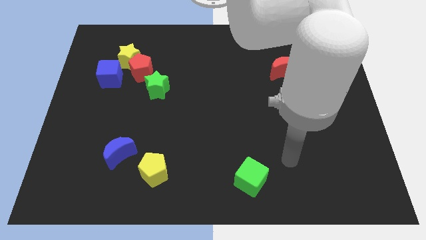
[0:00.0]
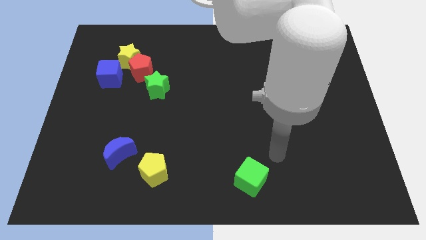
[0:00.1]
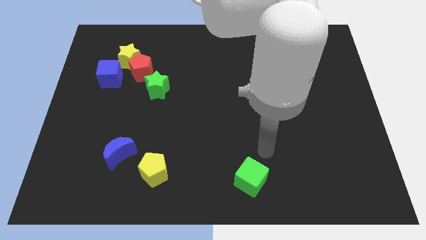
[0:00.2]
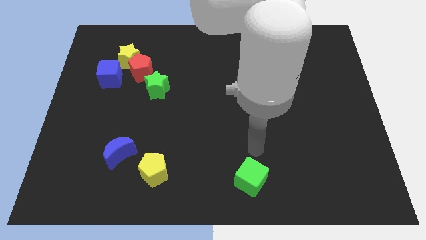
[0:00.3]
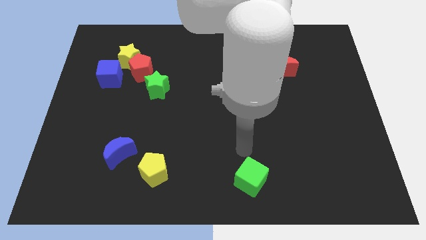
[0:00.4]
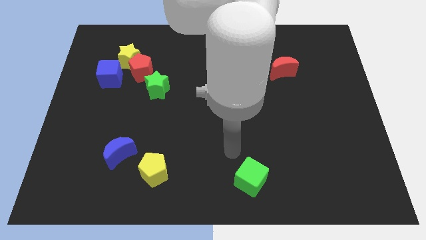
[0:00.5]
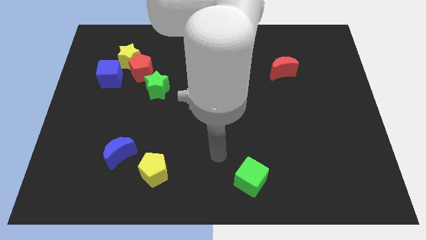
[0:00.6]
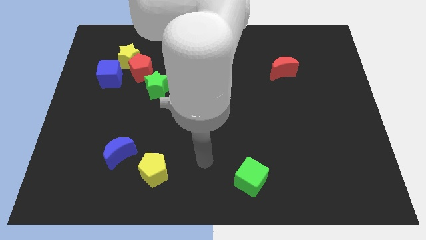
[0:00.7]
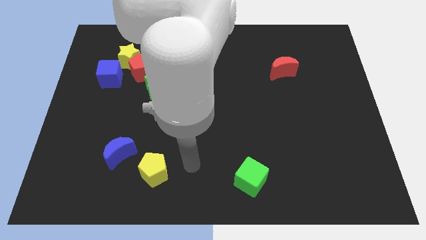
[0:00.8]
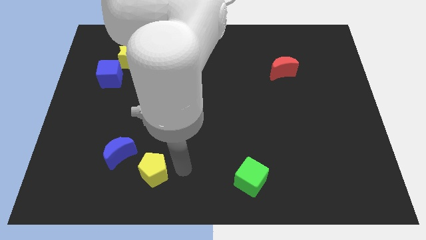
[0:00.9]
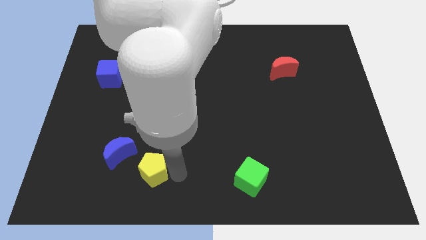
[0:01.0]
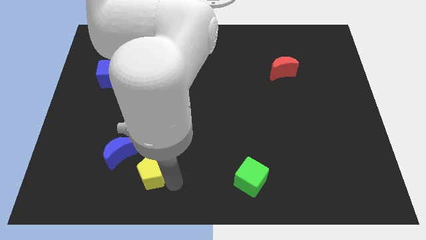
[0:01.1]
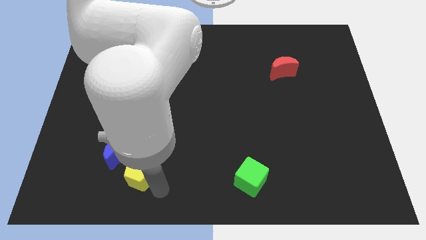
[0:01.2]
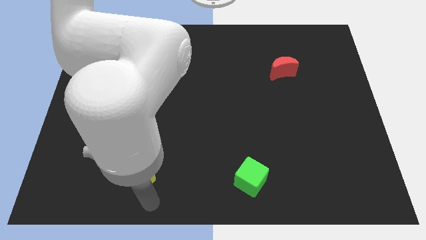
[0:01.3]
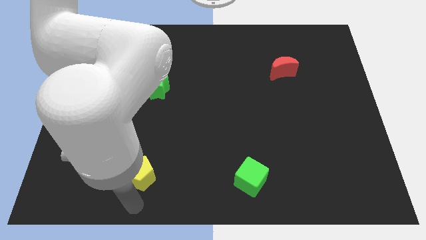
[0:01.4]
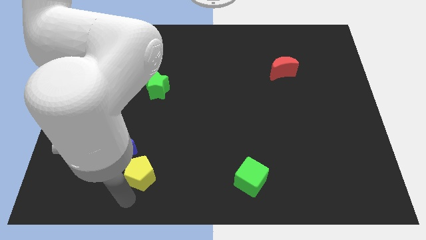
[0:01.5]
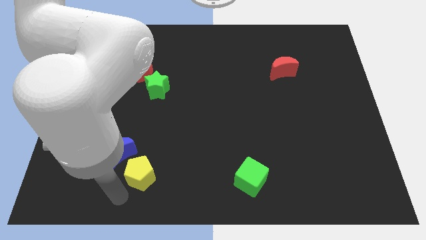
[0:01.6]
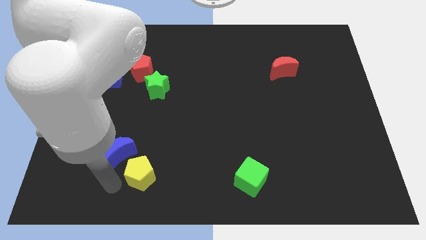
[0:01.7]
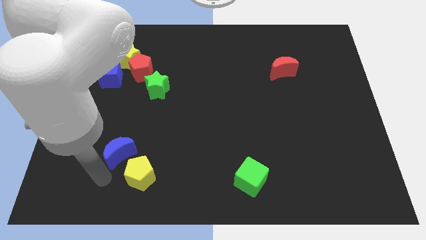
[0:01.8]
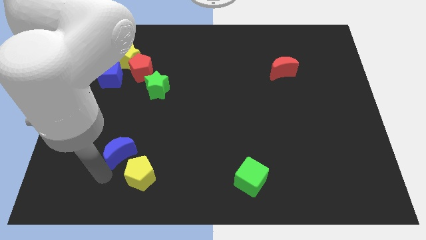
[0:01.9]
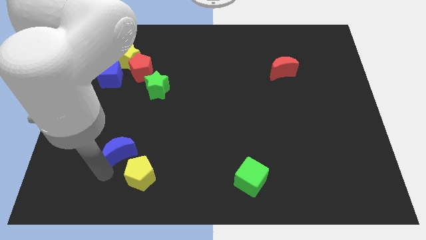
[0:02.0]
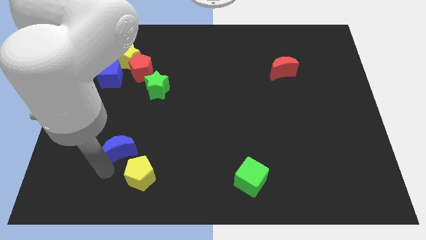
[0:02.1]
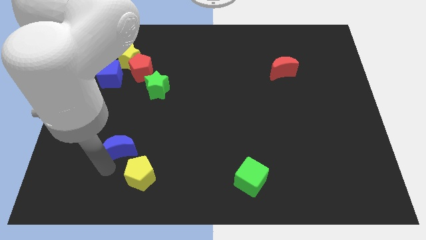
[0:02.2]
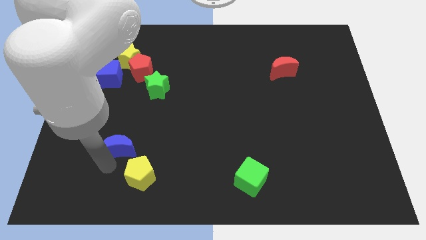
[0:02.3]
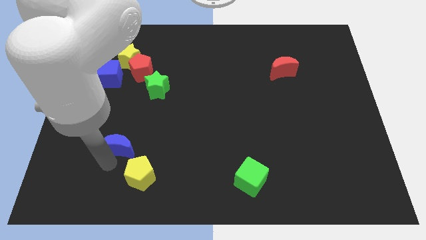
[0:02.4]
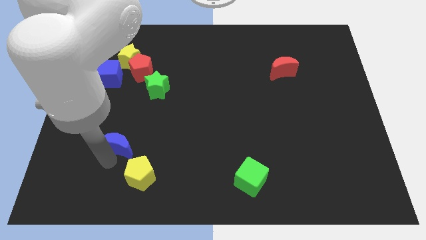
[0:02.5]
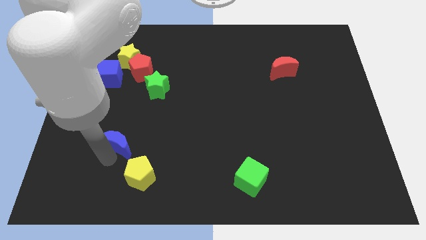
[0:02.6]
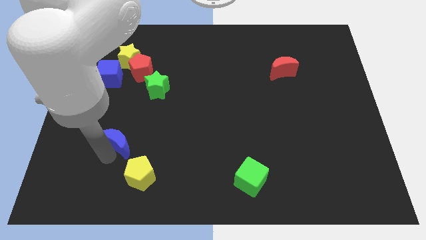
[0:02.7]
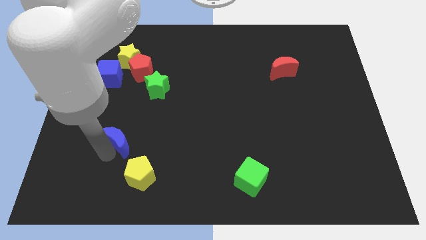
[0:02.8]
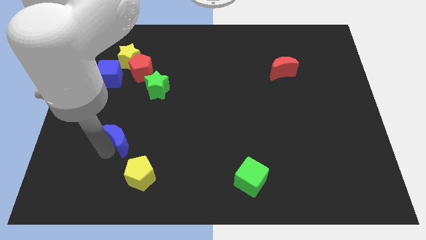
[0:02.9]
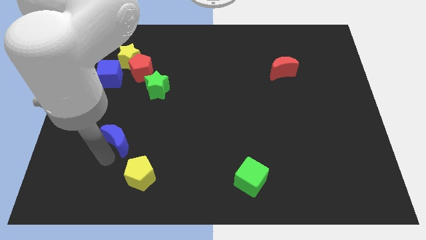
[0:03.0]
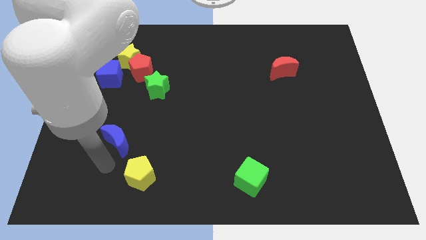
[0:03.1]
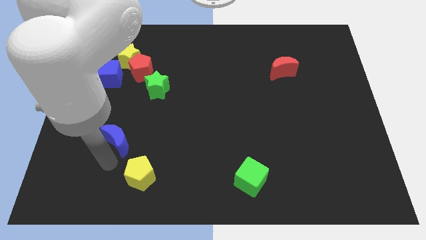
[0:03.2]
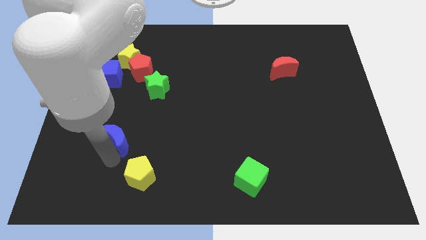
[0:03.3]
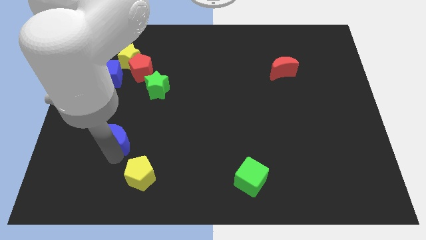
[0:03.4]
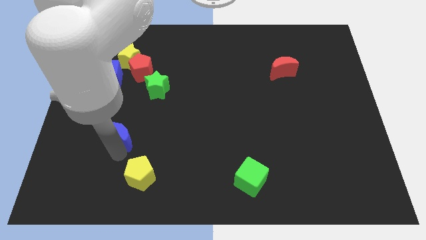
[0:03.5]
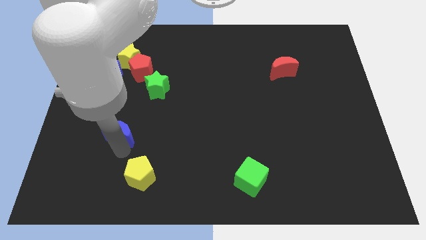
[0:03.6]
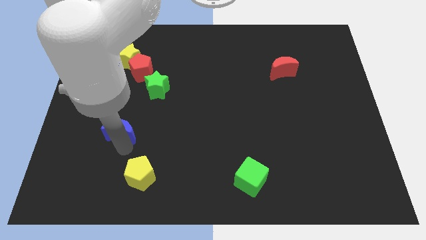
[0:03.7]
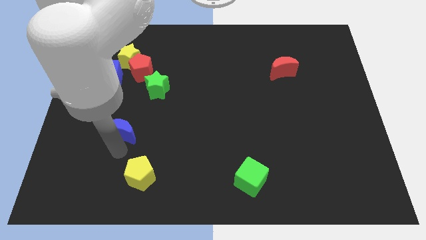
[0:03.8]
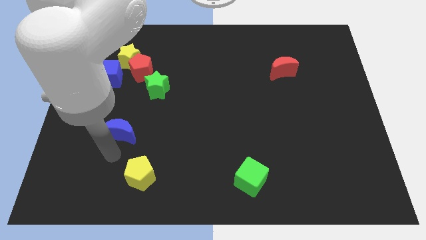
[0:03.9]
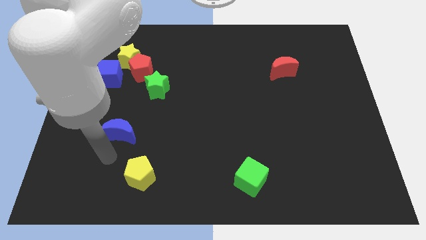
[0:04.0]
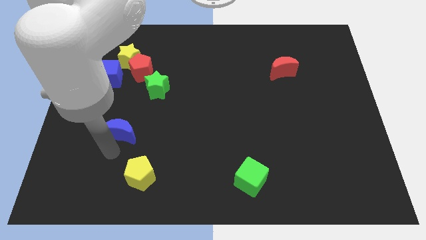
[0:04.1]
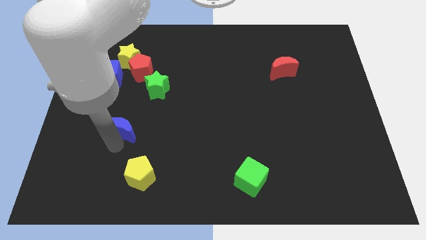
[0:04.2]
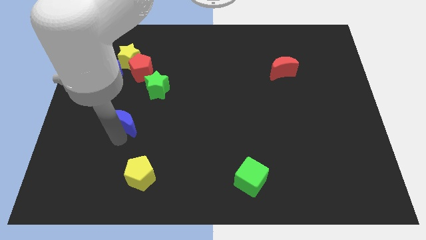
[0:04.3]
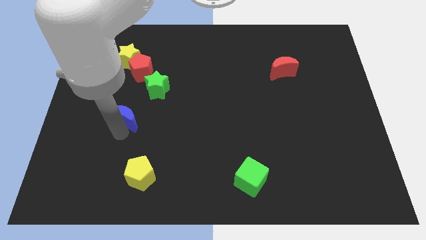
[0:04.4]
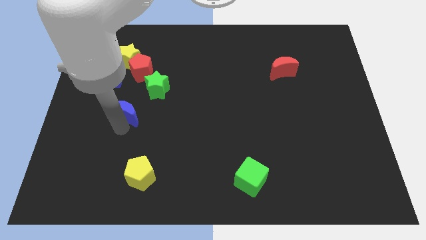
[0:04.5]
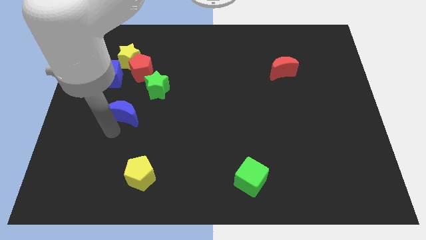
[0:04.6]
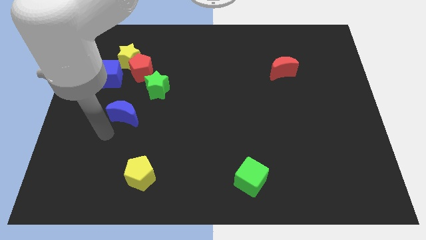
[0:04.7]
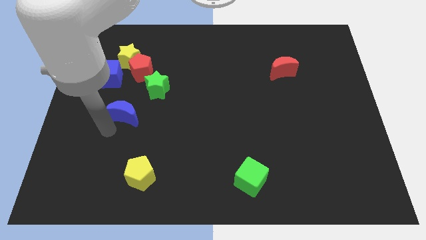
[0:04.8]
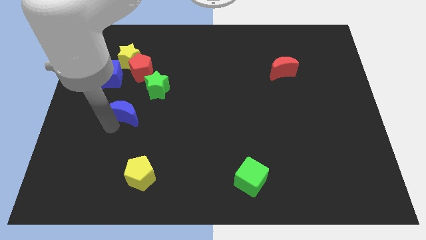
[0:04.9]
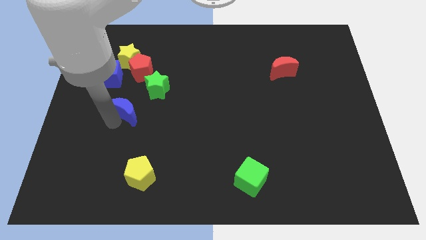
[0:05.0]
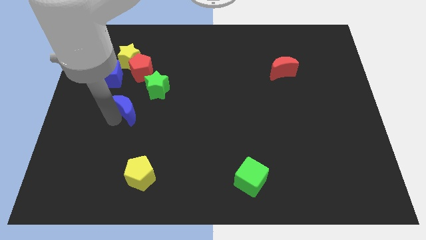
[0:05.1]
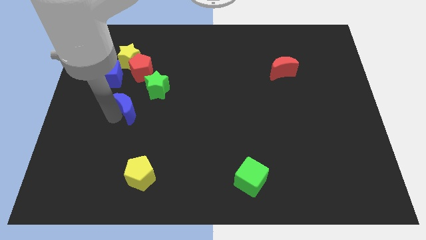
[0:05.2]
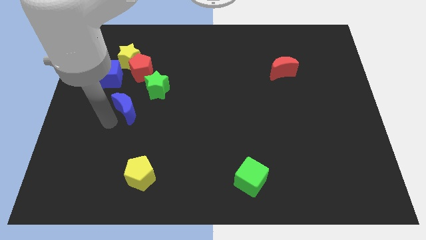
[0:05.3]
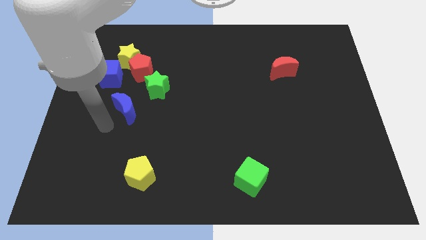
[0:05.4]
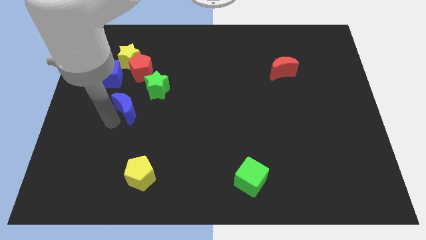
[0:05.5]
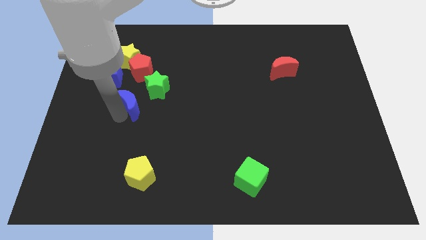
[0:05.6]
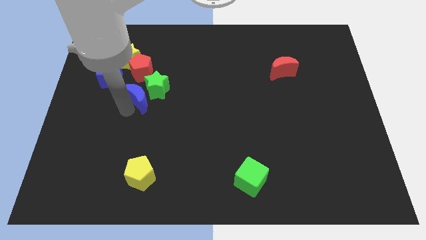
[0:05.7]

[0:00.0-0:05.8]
put the blue moon next to the green star

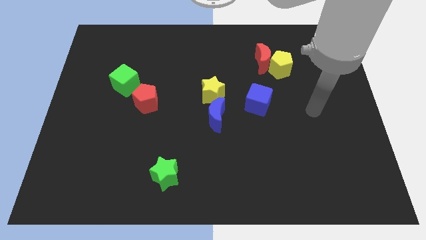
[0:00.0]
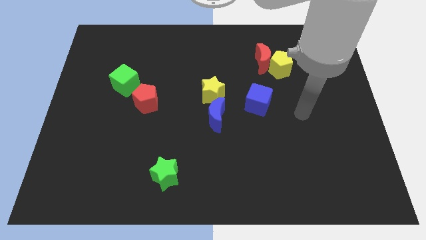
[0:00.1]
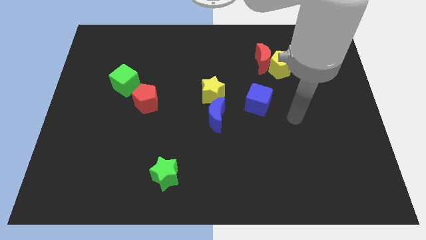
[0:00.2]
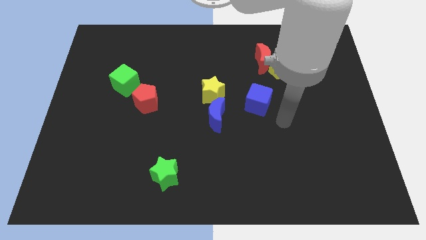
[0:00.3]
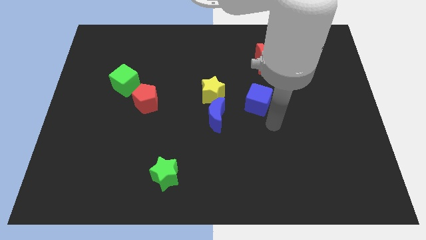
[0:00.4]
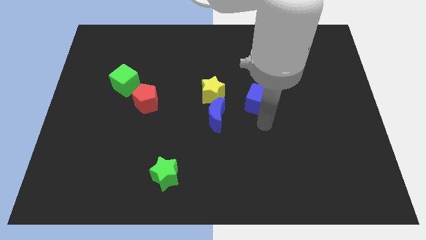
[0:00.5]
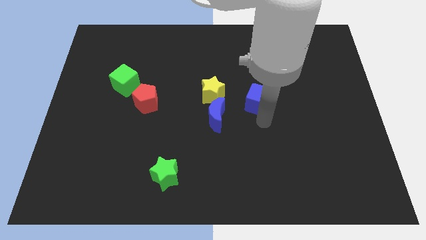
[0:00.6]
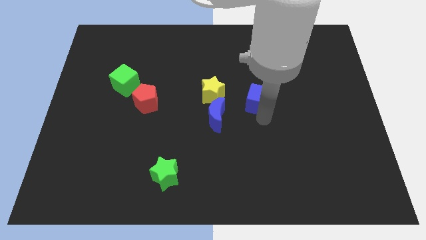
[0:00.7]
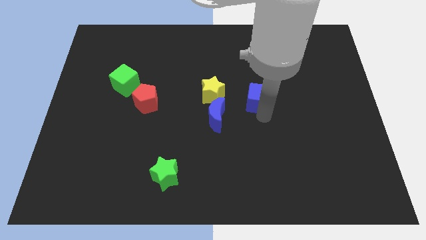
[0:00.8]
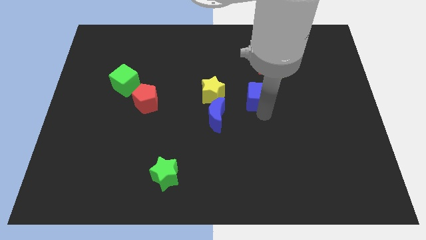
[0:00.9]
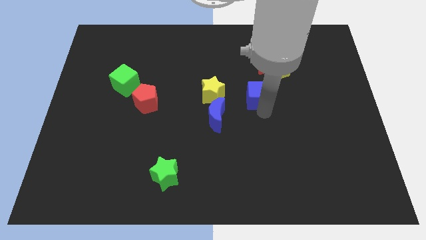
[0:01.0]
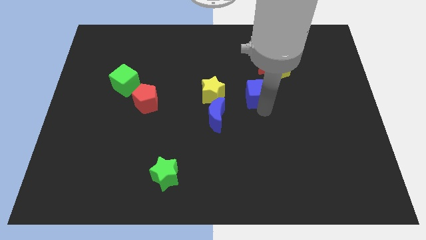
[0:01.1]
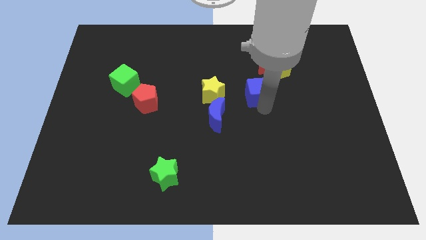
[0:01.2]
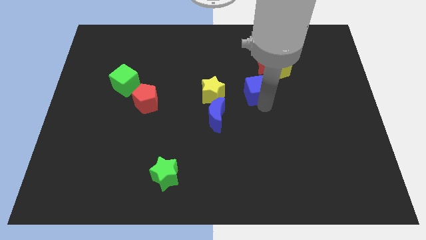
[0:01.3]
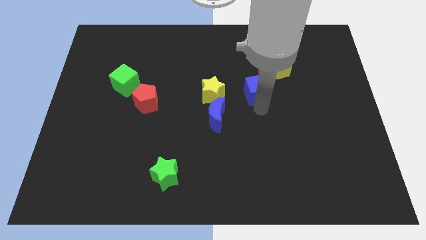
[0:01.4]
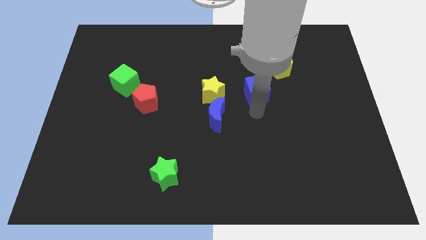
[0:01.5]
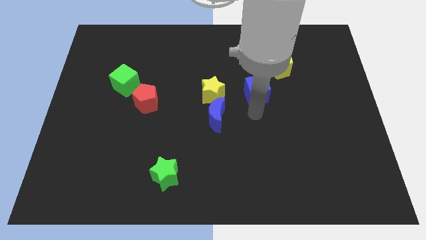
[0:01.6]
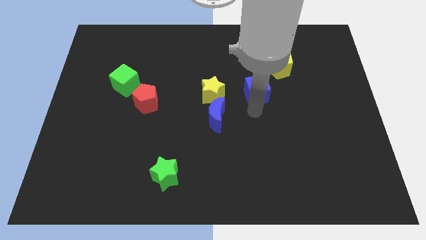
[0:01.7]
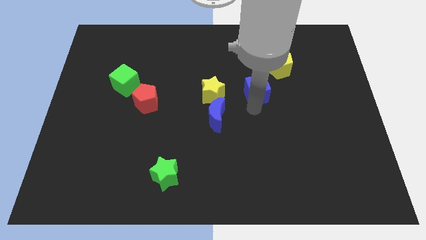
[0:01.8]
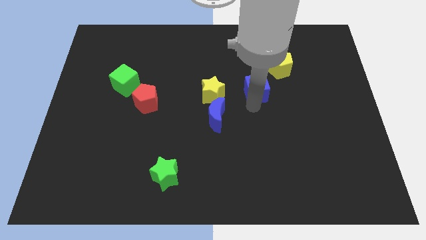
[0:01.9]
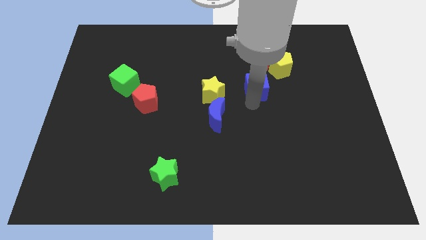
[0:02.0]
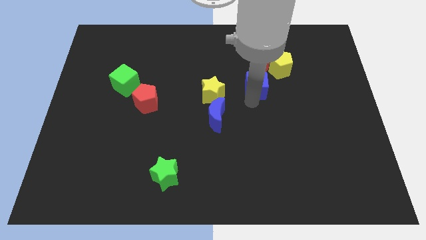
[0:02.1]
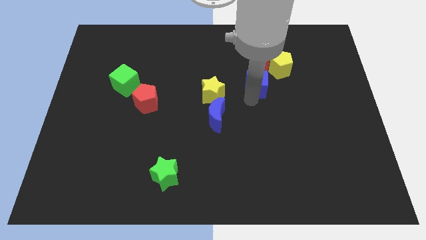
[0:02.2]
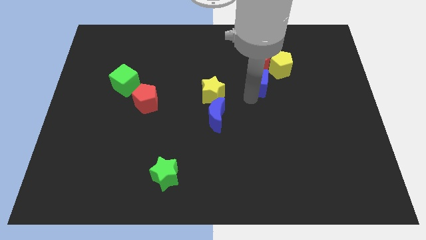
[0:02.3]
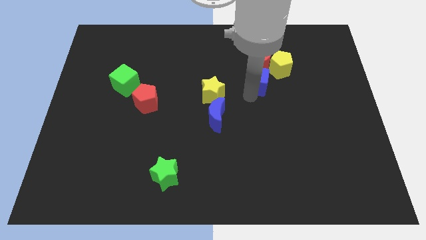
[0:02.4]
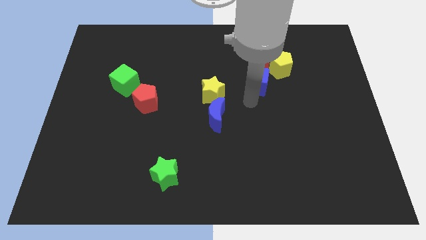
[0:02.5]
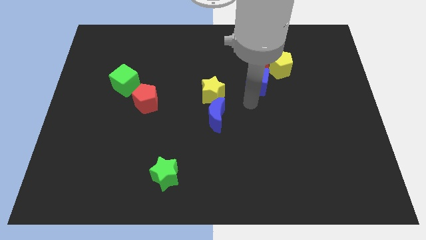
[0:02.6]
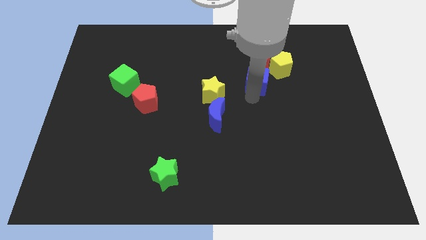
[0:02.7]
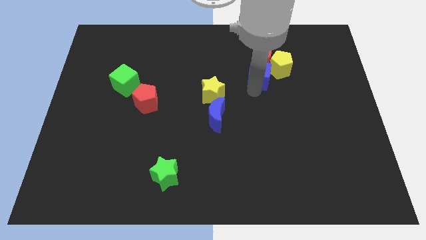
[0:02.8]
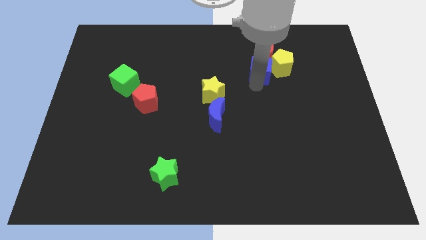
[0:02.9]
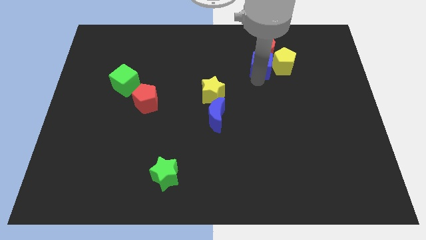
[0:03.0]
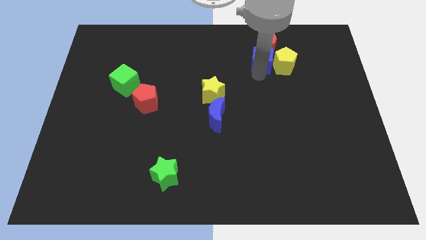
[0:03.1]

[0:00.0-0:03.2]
push the blue cube next to the red moon
